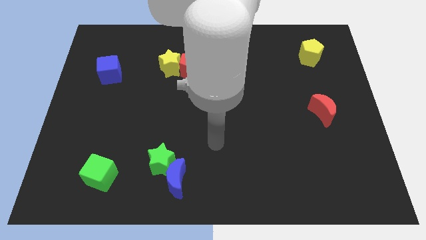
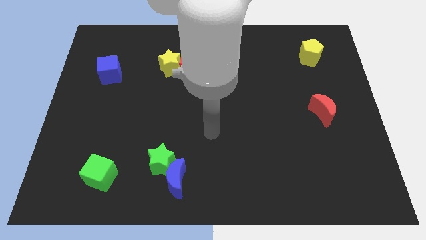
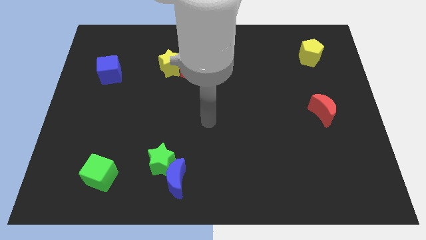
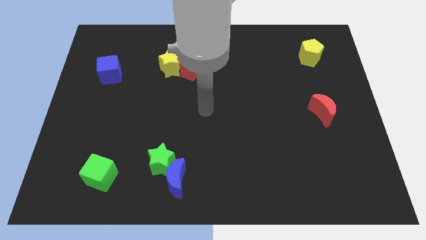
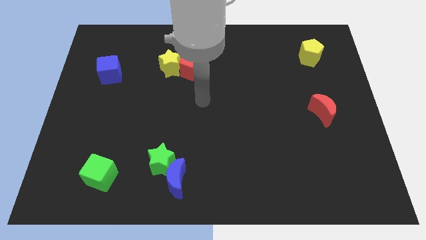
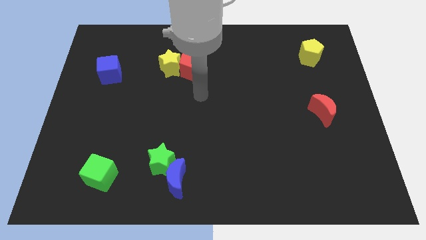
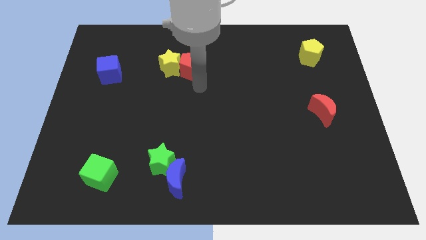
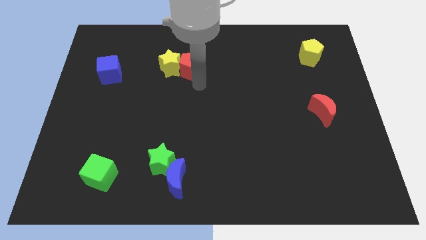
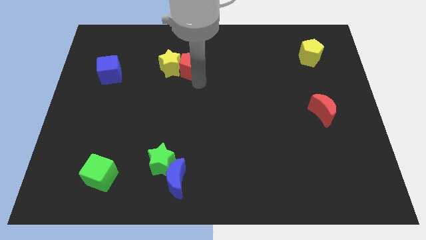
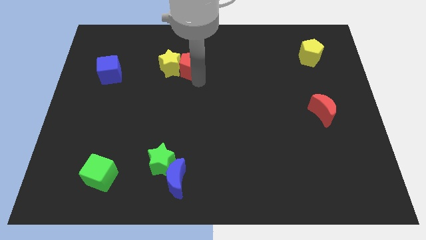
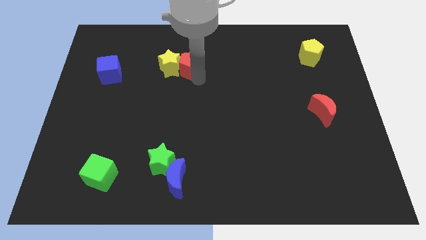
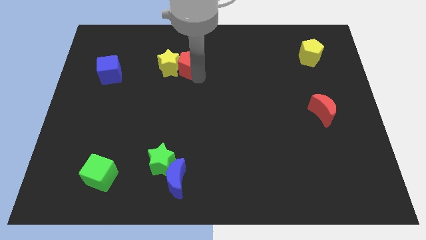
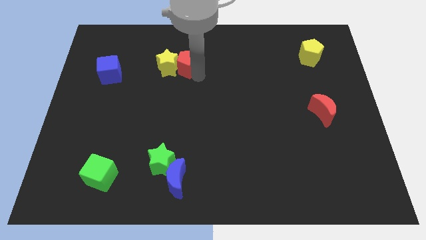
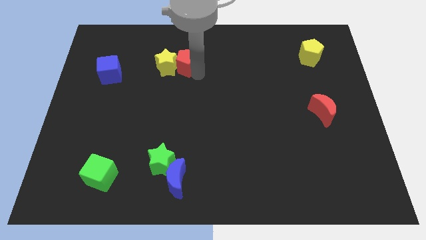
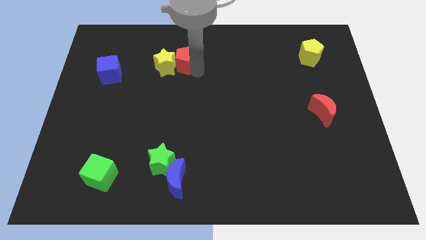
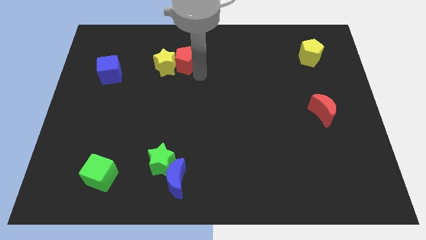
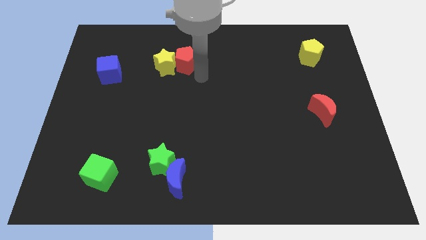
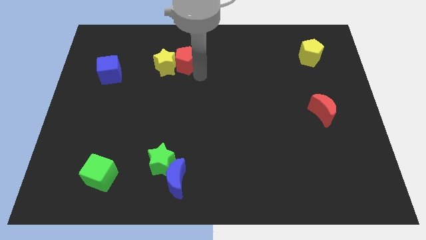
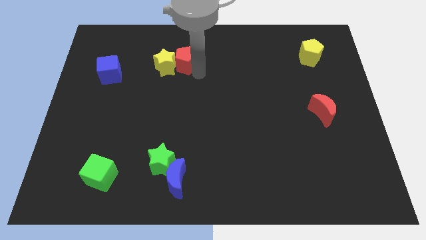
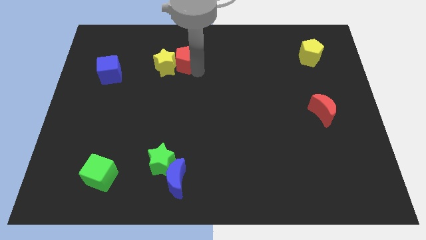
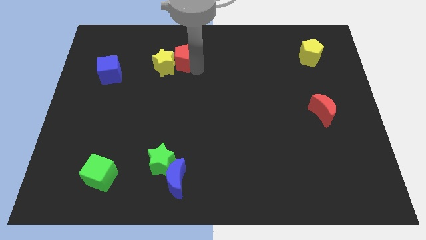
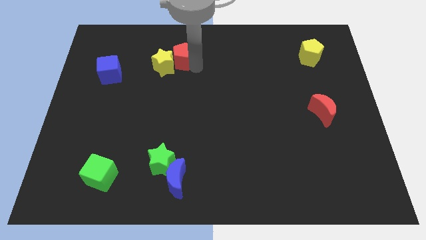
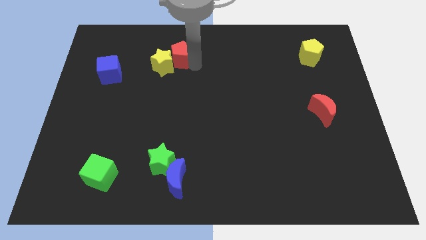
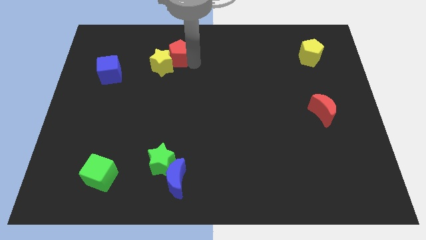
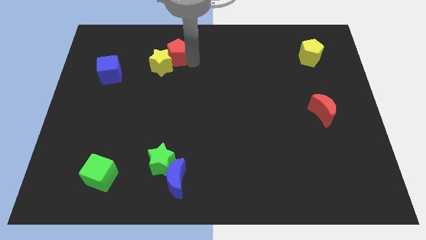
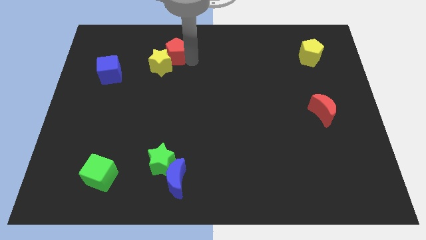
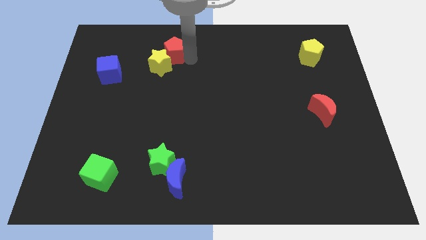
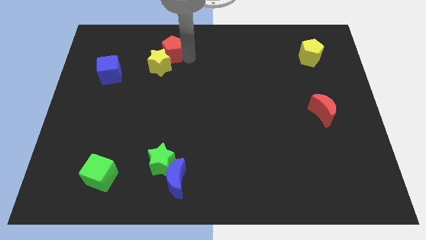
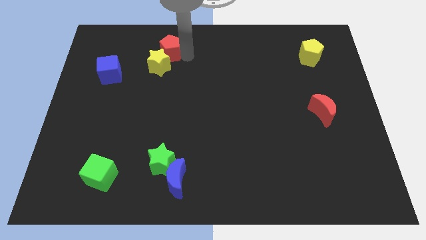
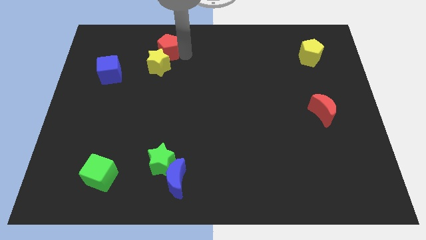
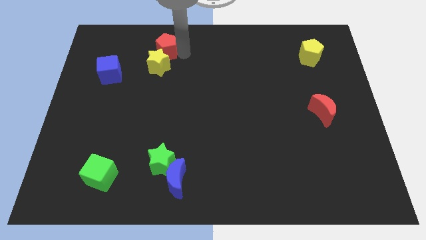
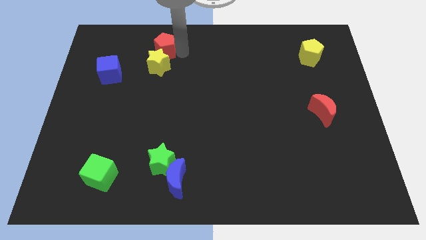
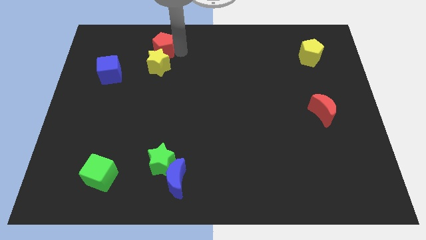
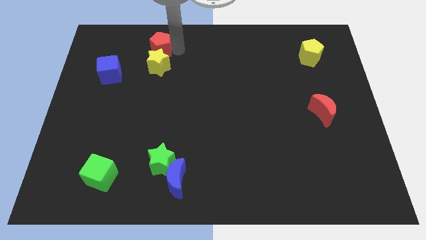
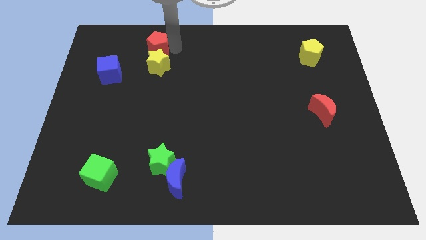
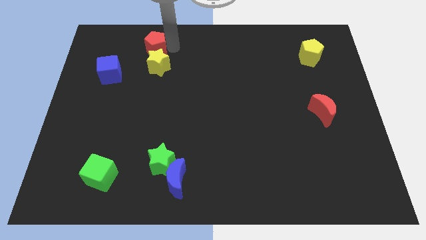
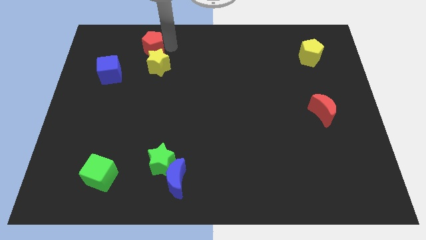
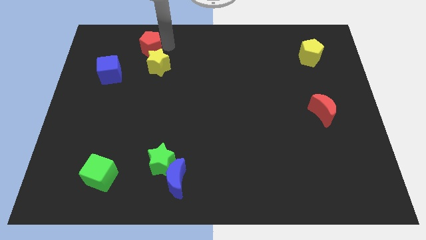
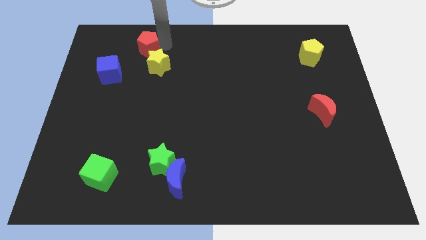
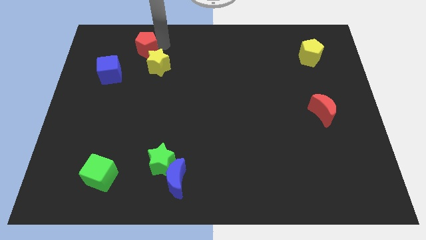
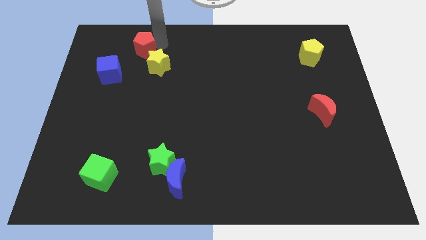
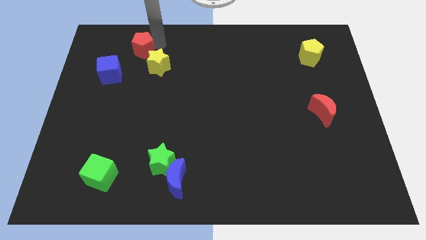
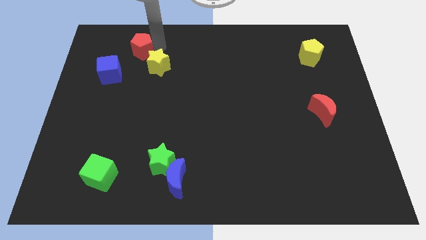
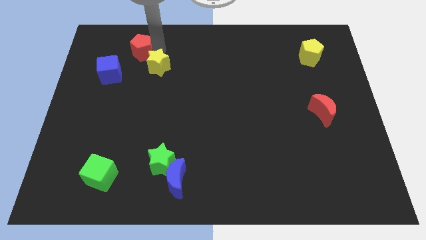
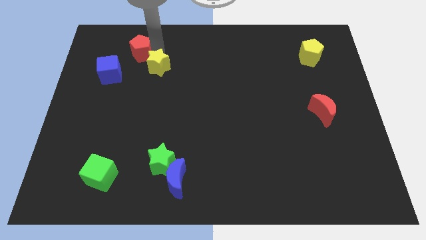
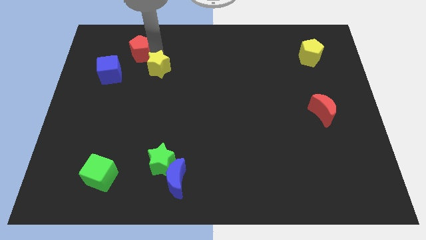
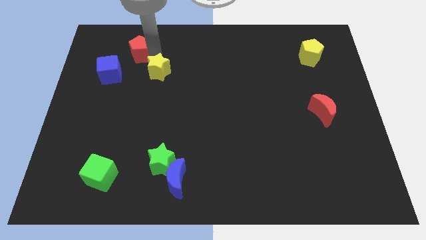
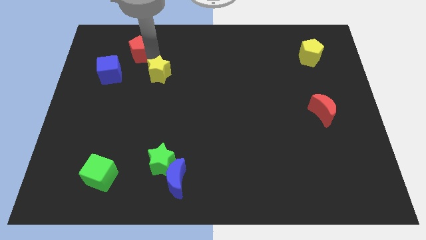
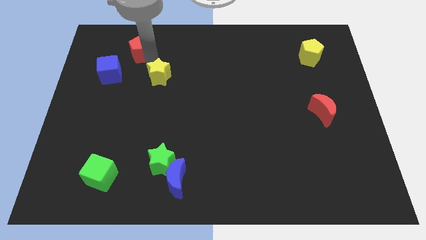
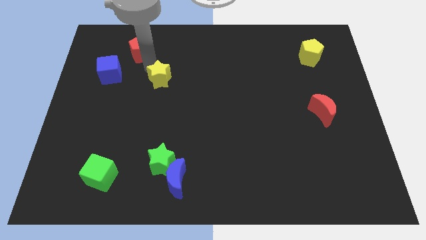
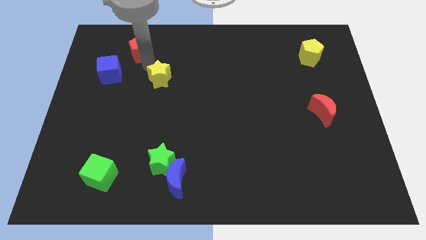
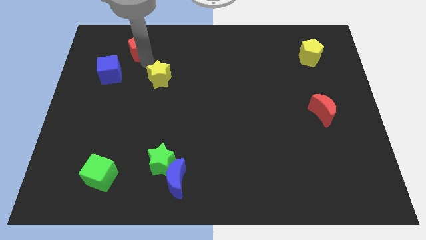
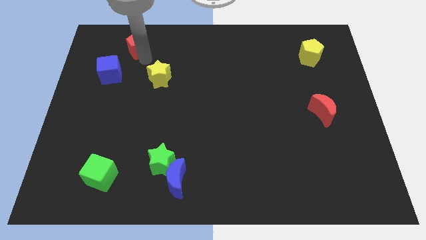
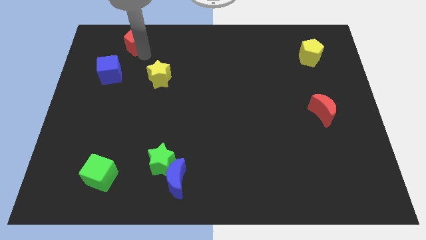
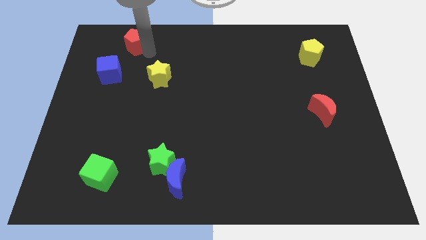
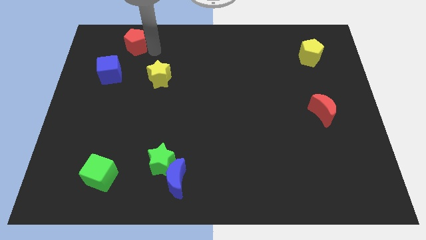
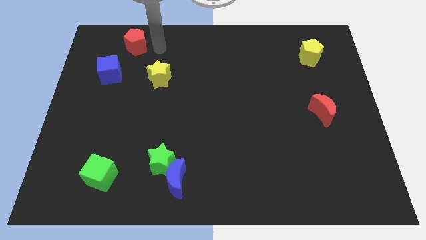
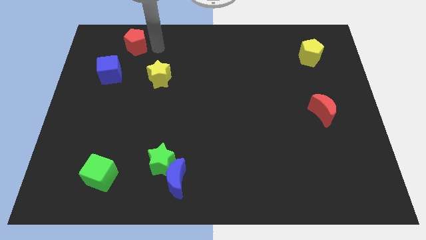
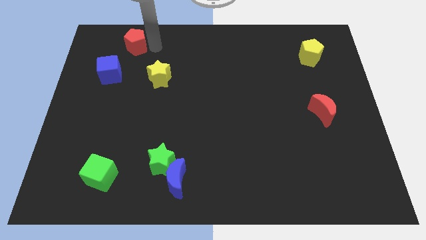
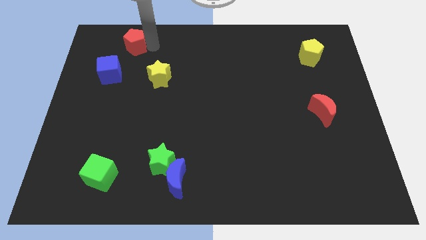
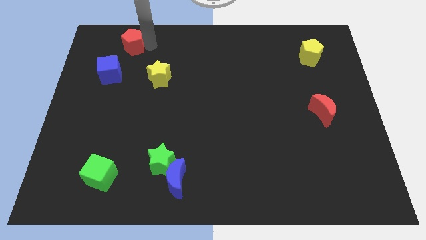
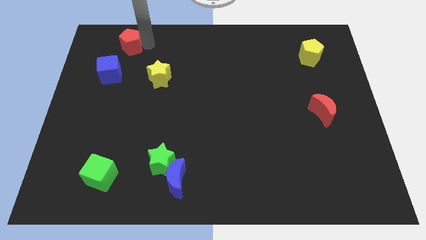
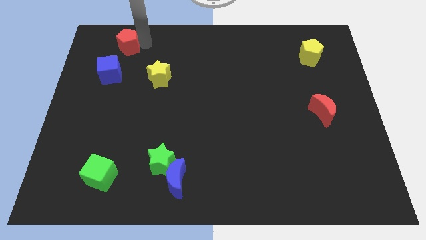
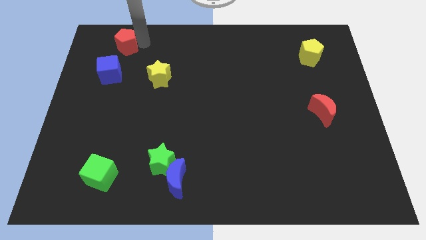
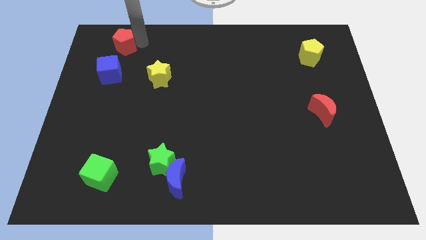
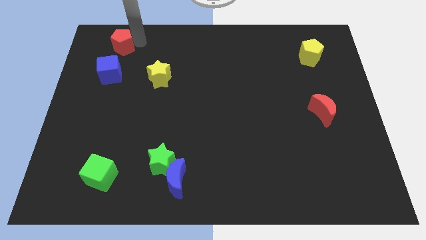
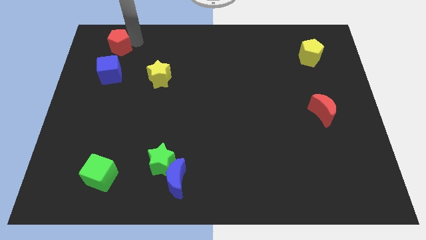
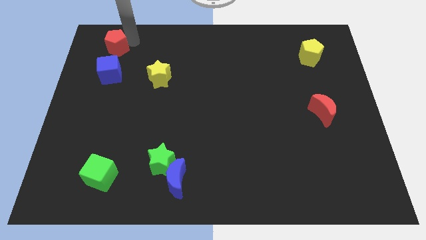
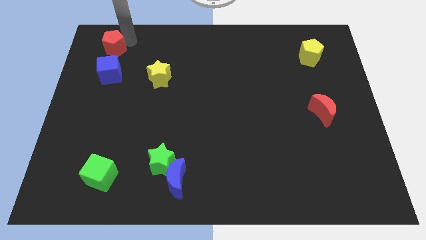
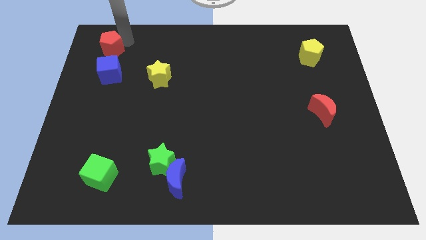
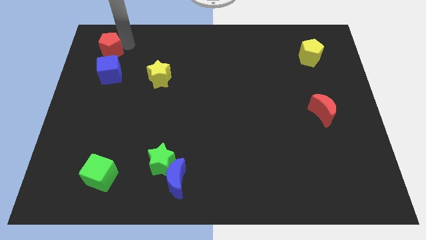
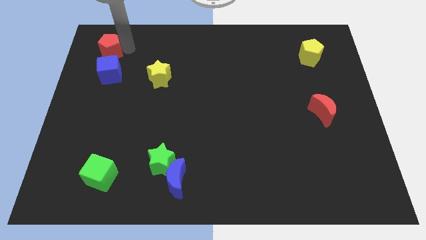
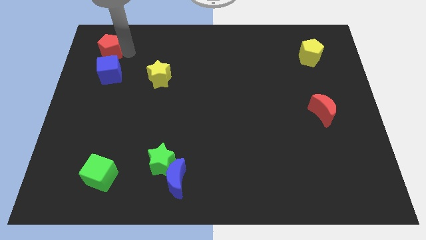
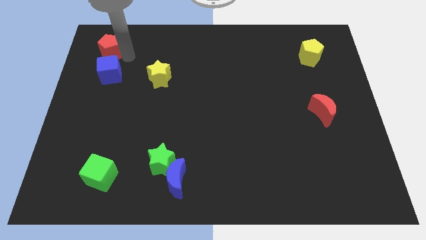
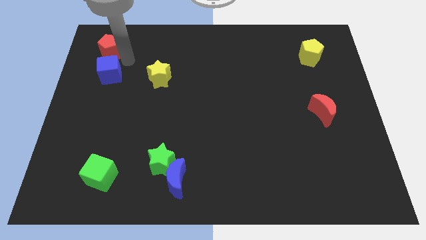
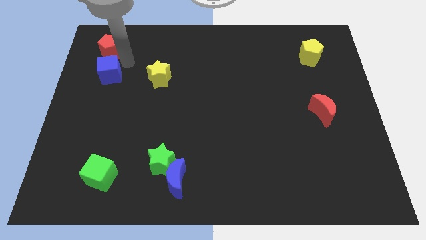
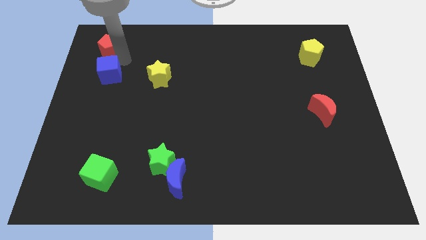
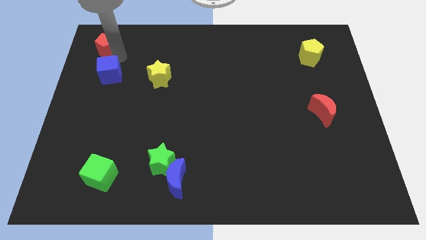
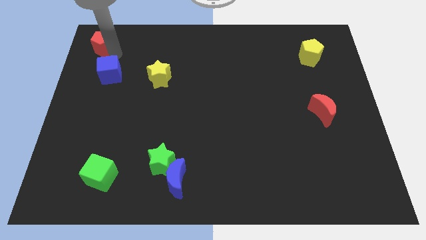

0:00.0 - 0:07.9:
put the red pentagon to the top left of the board
